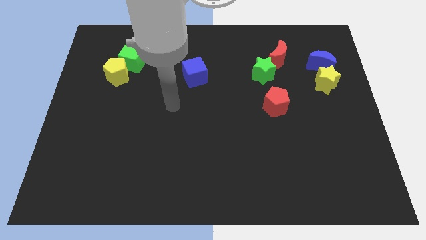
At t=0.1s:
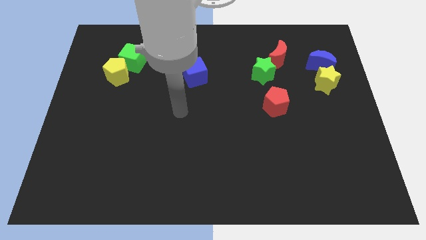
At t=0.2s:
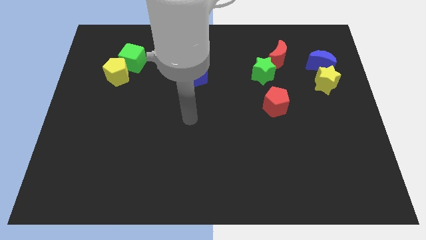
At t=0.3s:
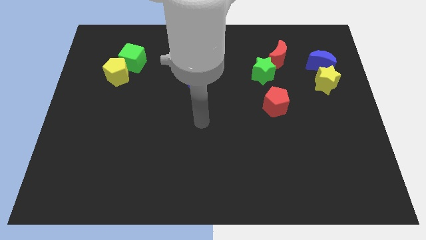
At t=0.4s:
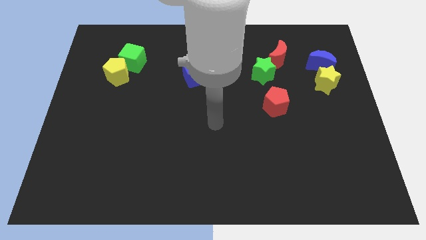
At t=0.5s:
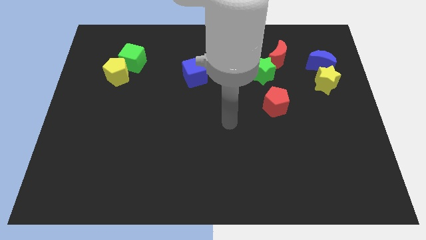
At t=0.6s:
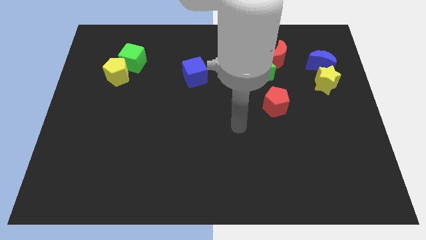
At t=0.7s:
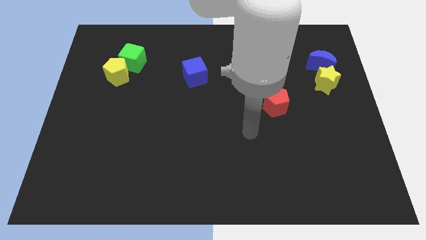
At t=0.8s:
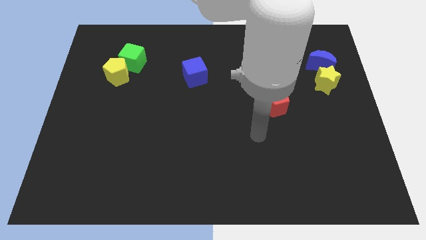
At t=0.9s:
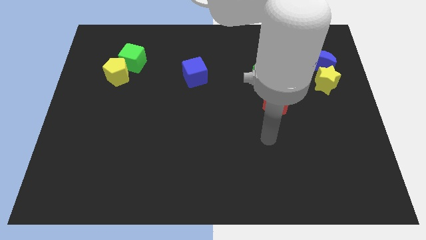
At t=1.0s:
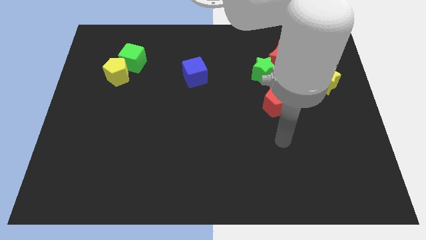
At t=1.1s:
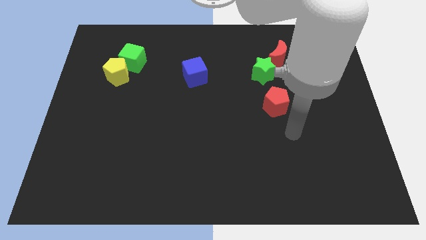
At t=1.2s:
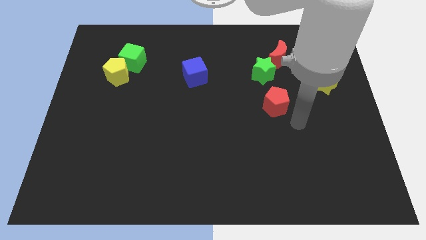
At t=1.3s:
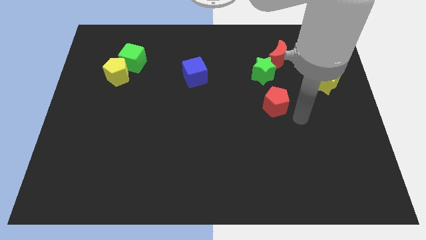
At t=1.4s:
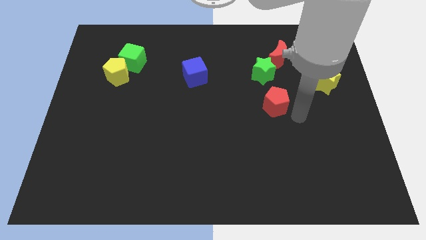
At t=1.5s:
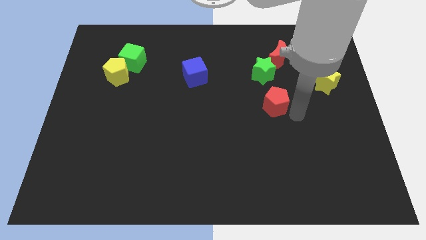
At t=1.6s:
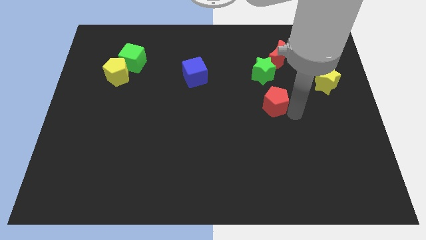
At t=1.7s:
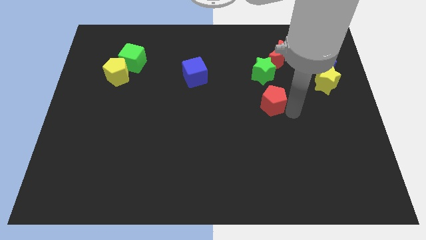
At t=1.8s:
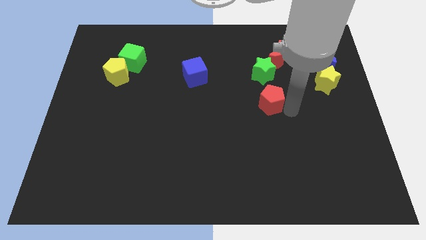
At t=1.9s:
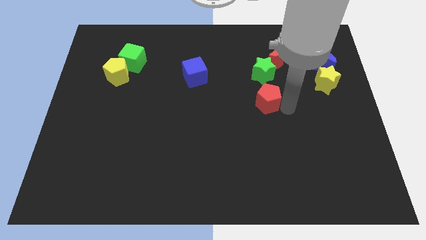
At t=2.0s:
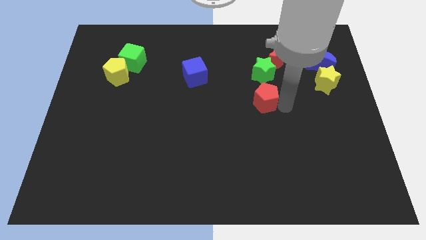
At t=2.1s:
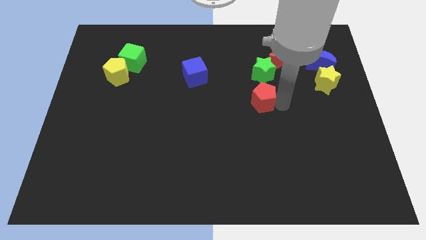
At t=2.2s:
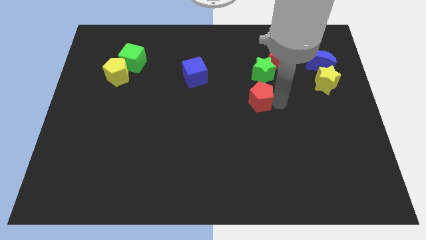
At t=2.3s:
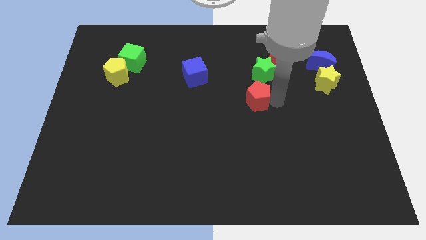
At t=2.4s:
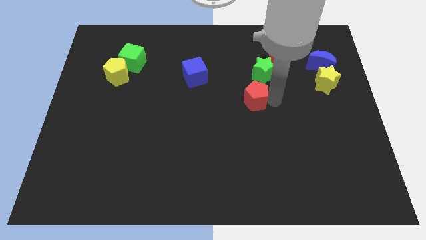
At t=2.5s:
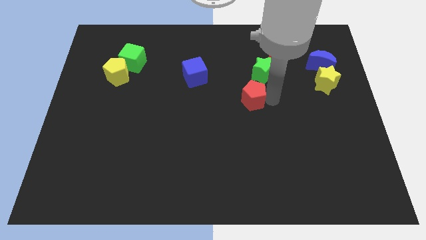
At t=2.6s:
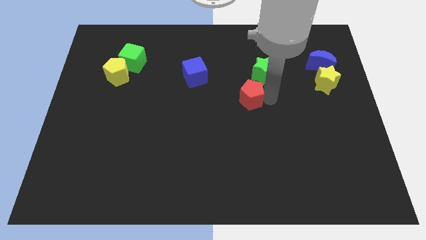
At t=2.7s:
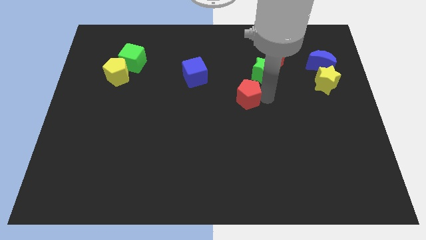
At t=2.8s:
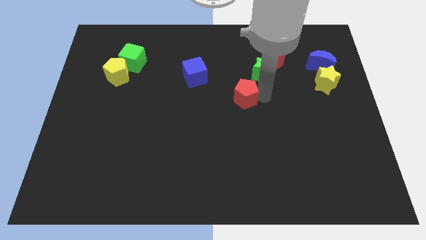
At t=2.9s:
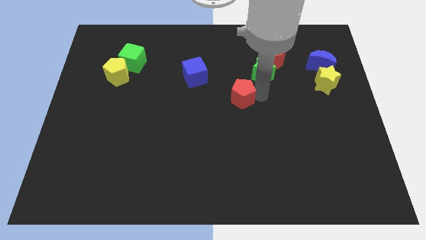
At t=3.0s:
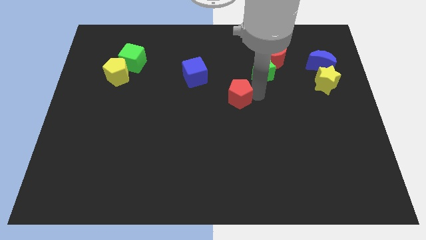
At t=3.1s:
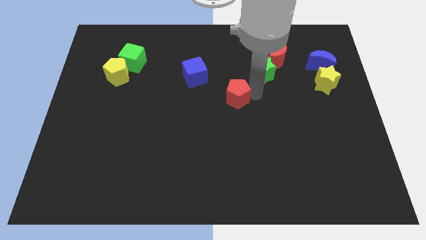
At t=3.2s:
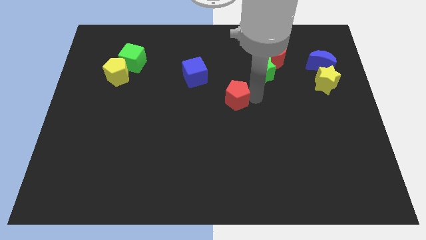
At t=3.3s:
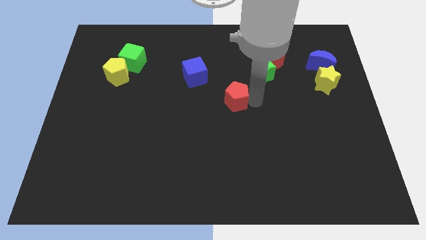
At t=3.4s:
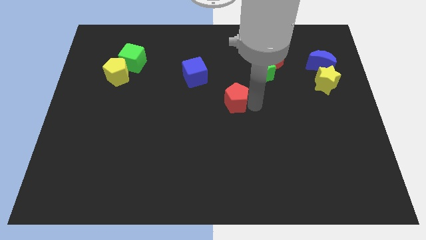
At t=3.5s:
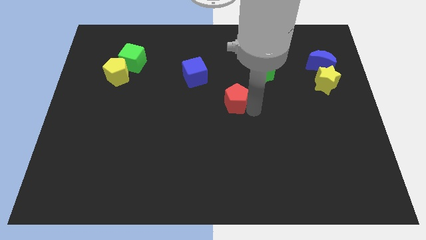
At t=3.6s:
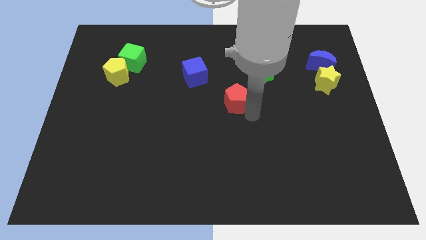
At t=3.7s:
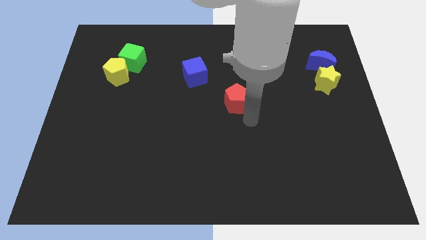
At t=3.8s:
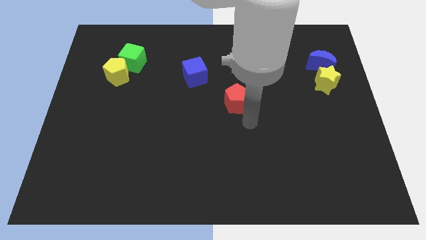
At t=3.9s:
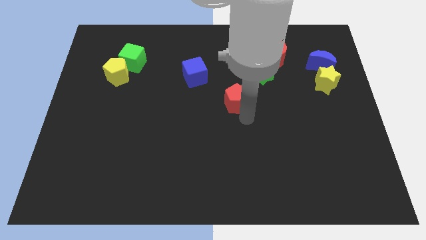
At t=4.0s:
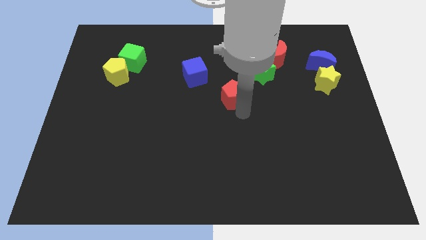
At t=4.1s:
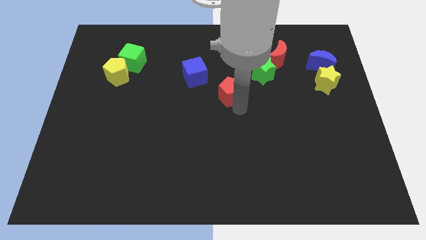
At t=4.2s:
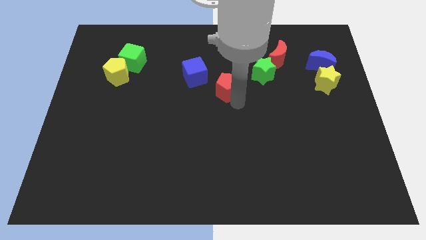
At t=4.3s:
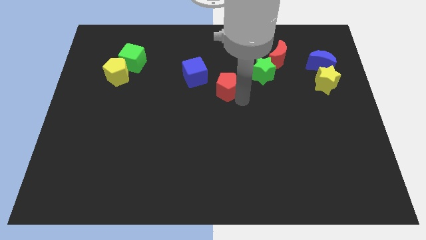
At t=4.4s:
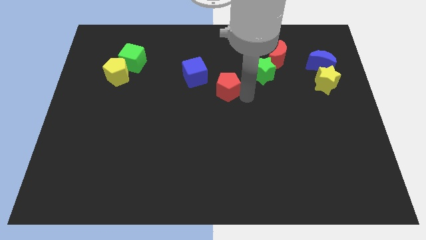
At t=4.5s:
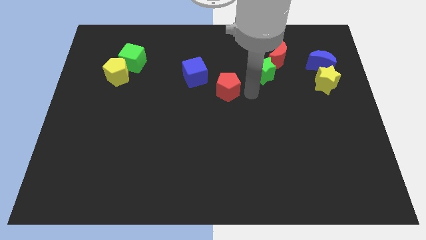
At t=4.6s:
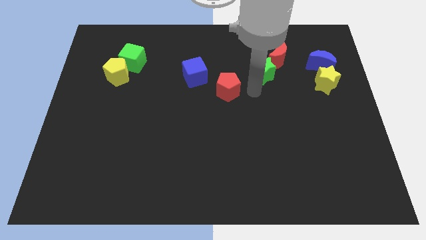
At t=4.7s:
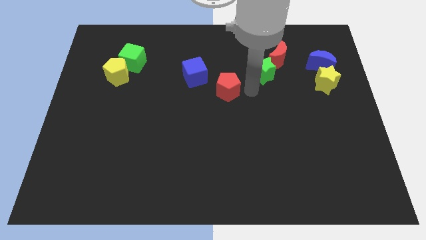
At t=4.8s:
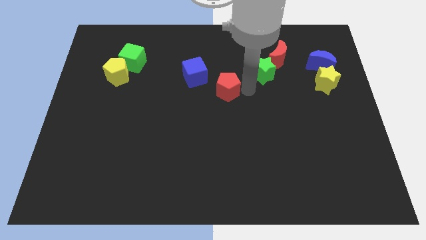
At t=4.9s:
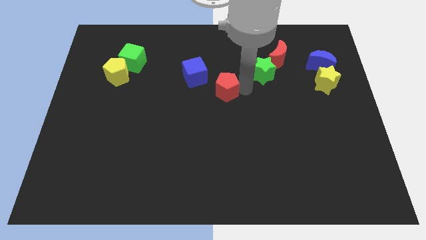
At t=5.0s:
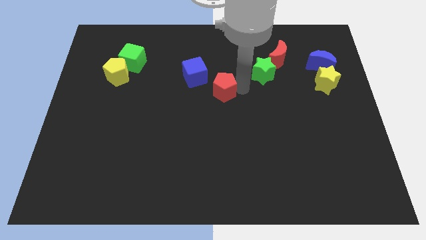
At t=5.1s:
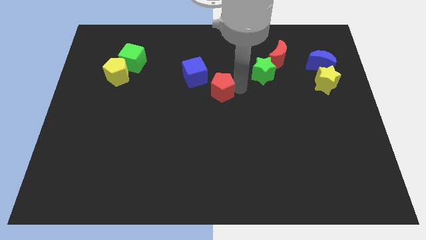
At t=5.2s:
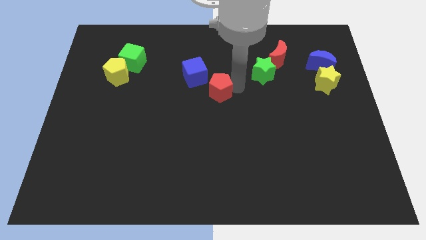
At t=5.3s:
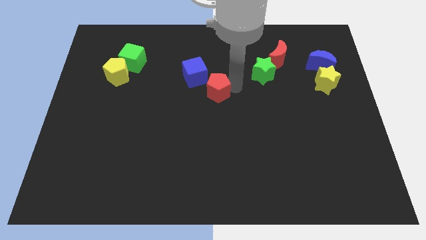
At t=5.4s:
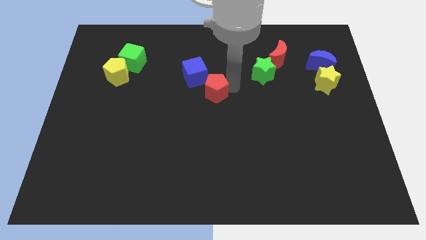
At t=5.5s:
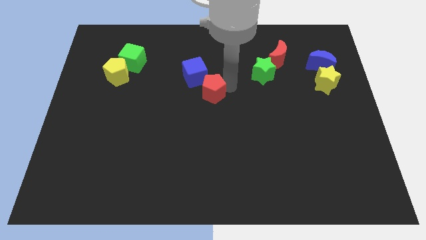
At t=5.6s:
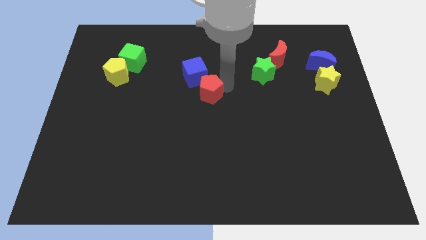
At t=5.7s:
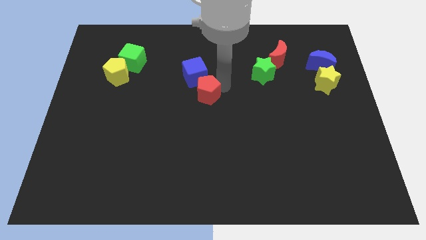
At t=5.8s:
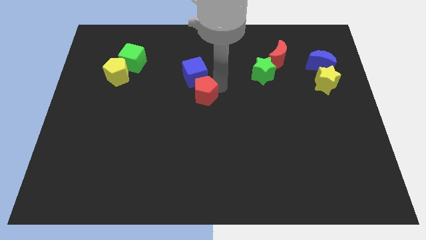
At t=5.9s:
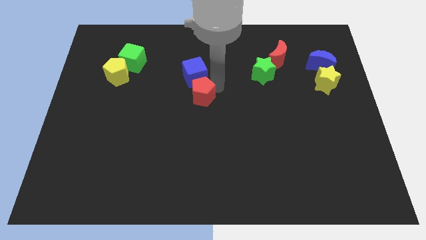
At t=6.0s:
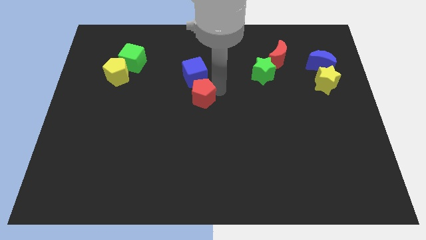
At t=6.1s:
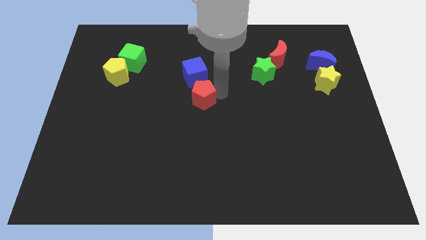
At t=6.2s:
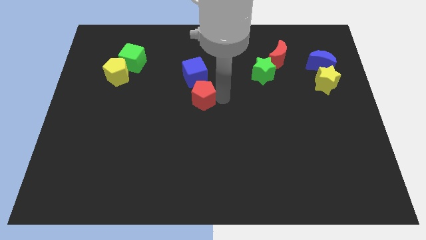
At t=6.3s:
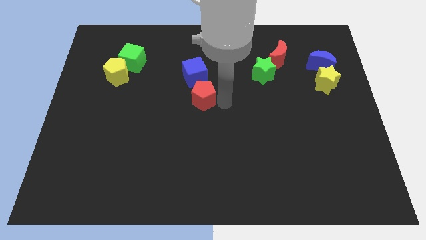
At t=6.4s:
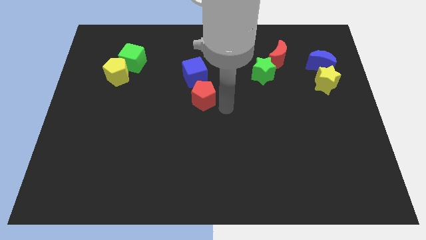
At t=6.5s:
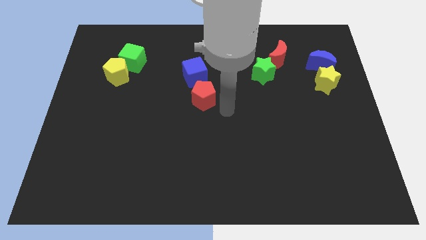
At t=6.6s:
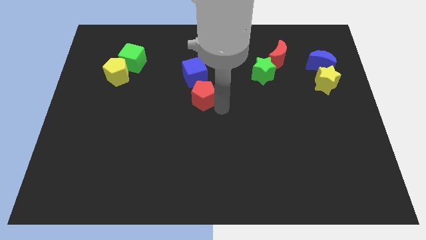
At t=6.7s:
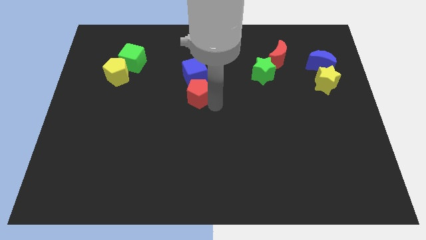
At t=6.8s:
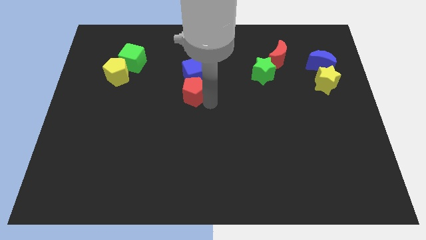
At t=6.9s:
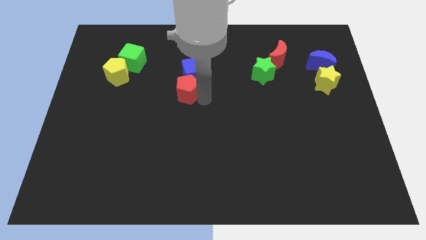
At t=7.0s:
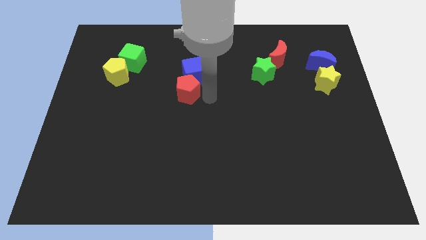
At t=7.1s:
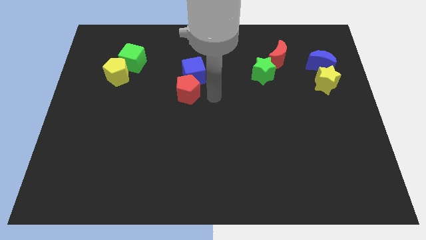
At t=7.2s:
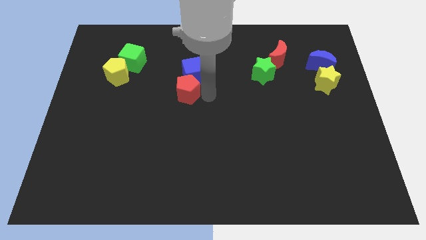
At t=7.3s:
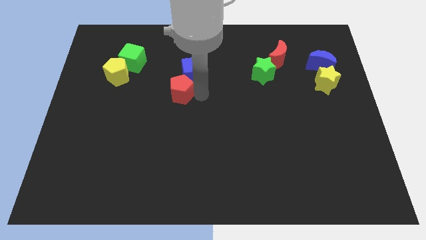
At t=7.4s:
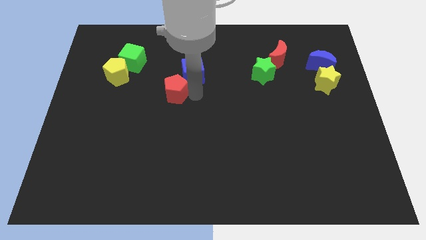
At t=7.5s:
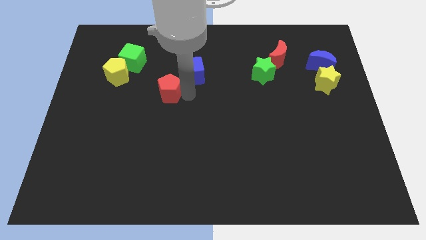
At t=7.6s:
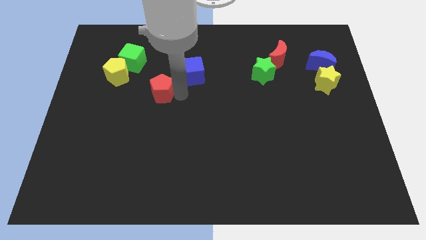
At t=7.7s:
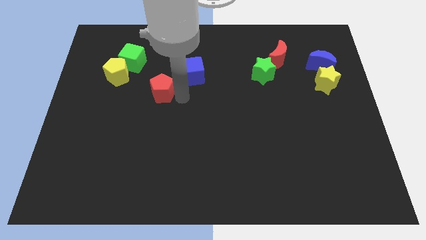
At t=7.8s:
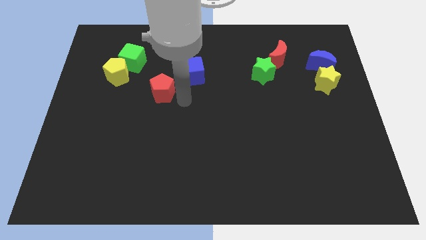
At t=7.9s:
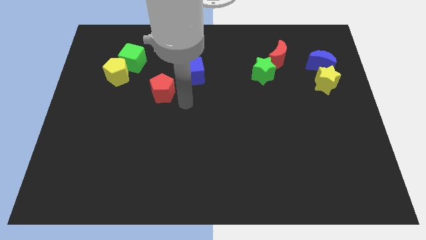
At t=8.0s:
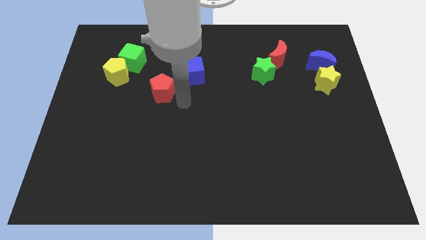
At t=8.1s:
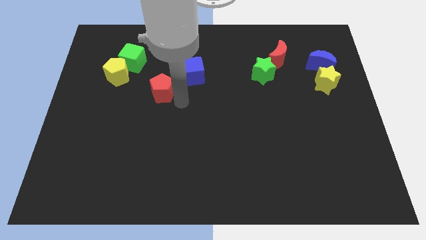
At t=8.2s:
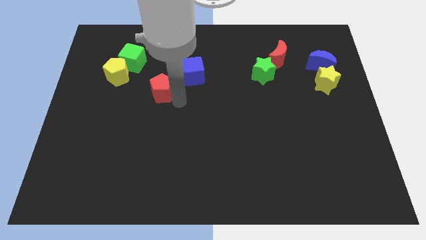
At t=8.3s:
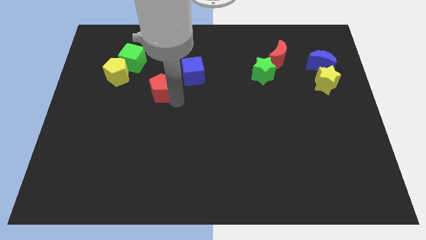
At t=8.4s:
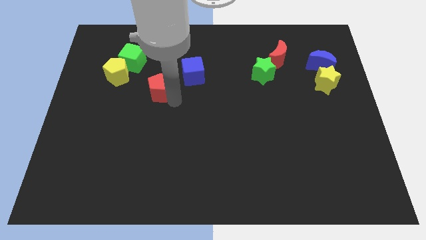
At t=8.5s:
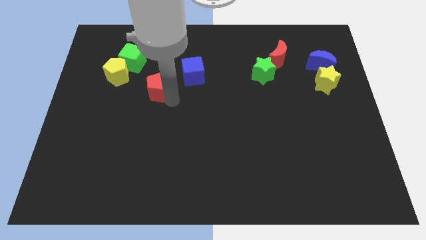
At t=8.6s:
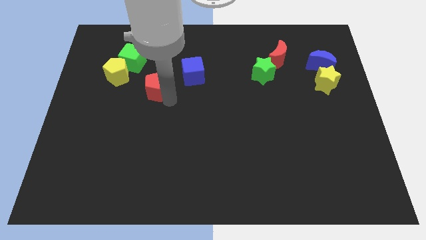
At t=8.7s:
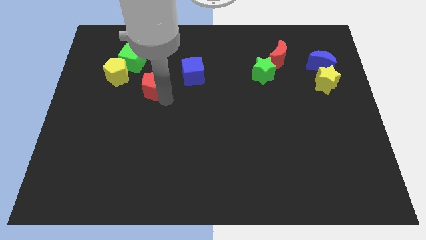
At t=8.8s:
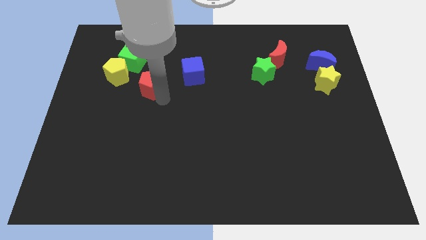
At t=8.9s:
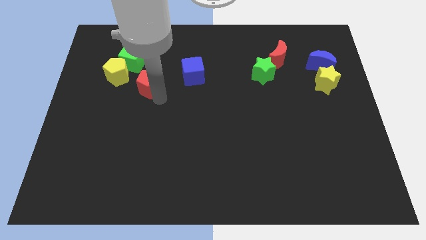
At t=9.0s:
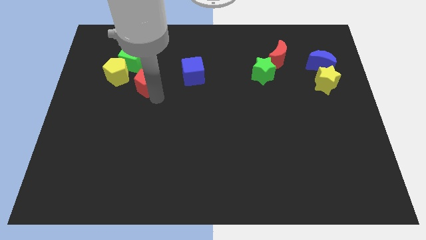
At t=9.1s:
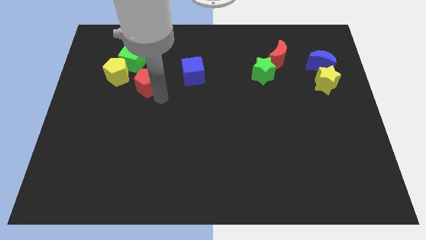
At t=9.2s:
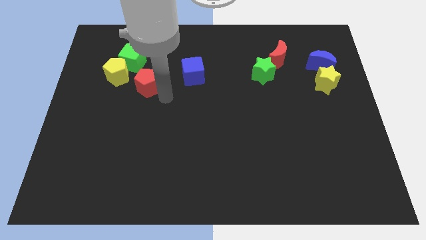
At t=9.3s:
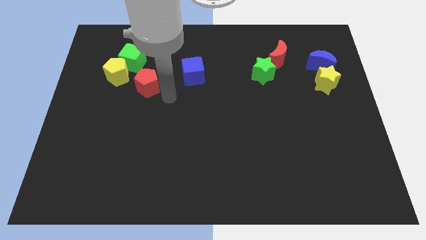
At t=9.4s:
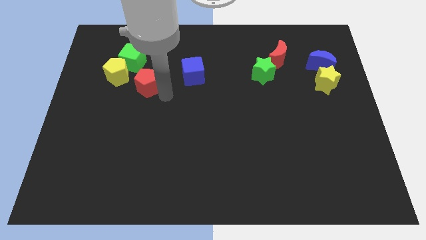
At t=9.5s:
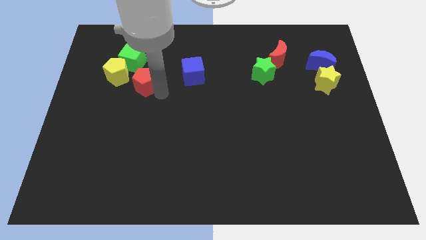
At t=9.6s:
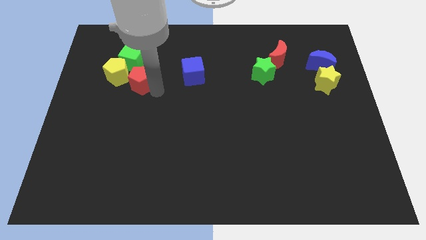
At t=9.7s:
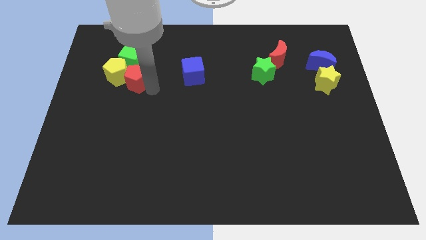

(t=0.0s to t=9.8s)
slide the red pentagon close to the yellow pentagon
